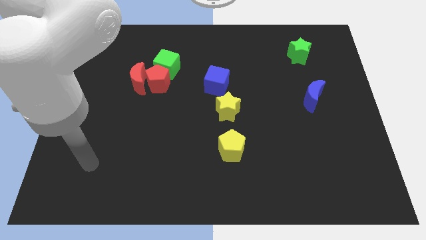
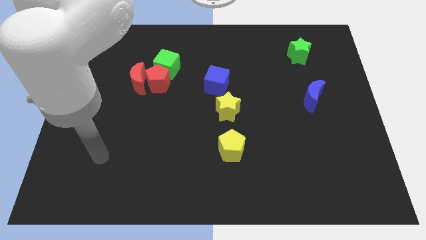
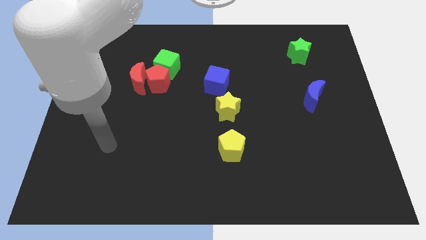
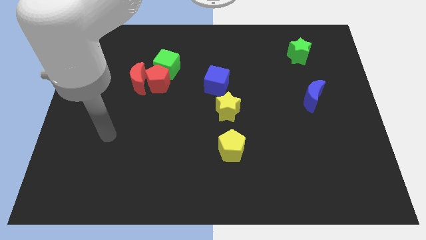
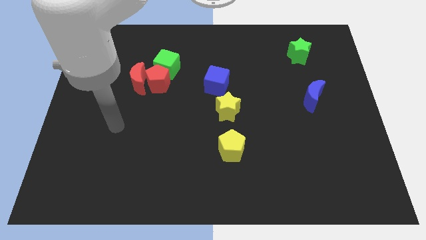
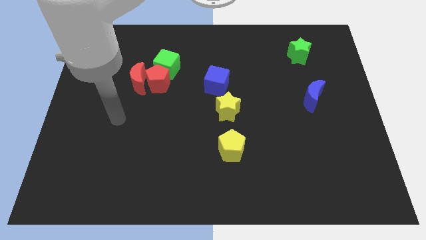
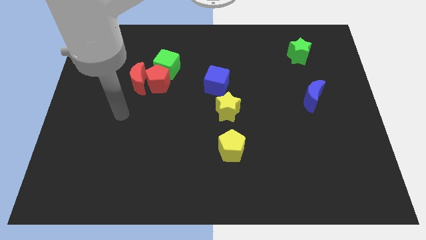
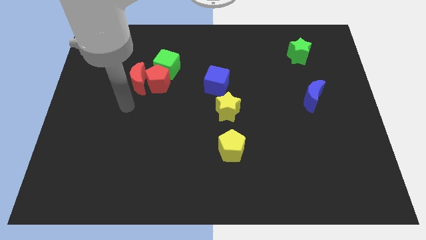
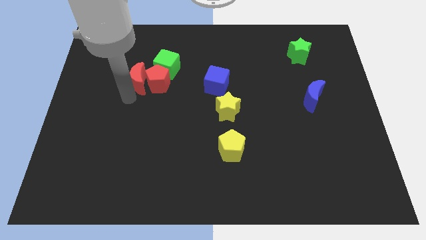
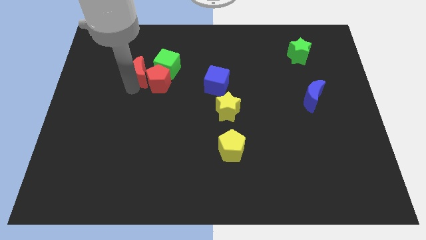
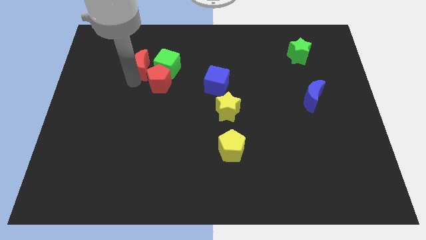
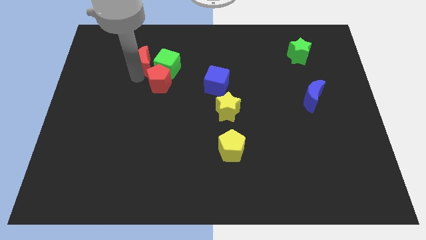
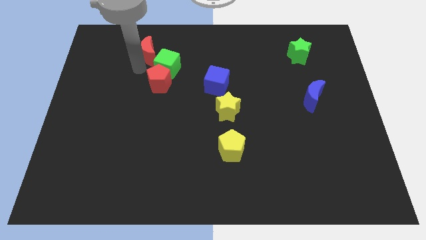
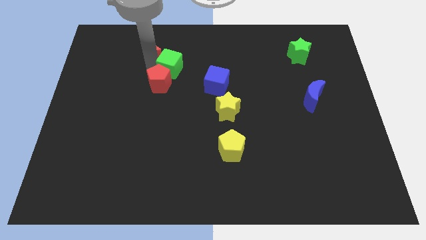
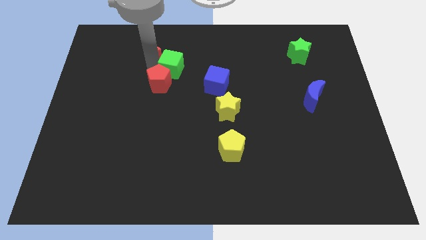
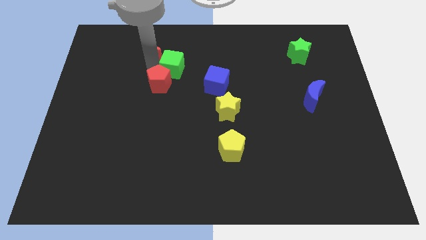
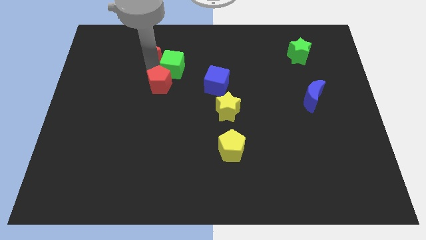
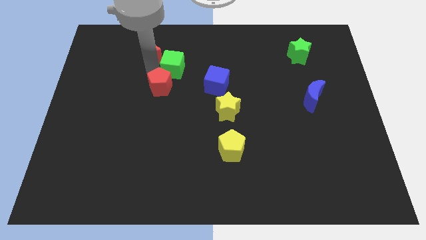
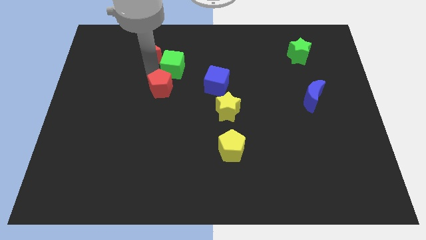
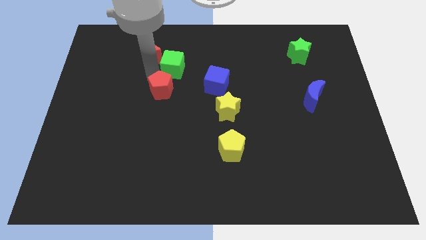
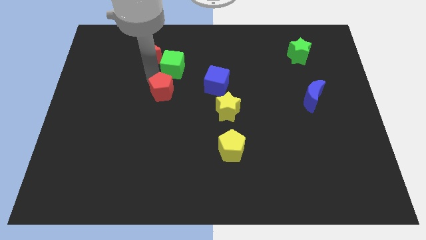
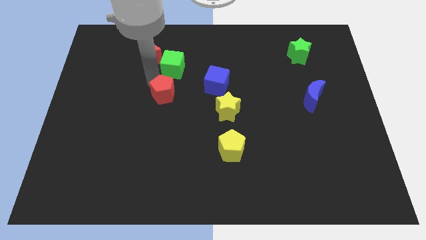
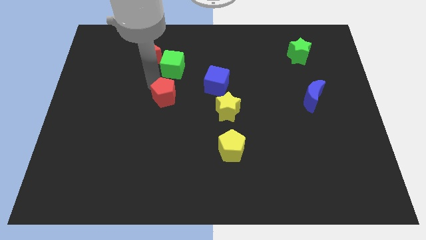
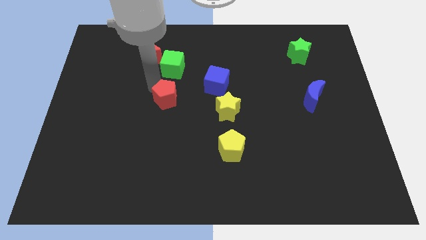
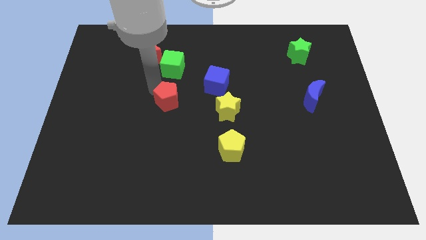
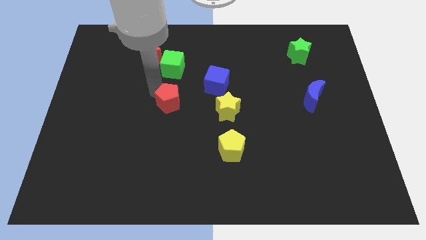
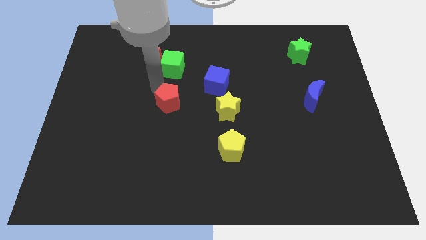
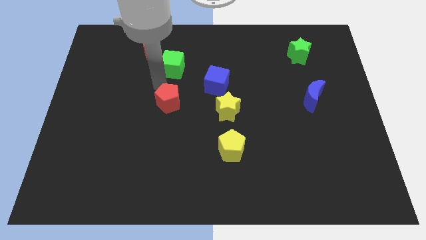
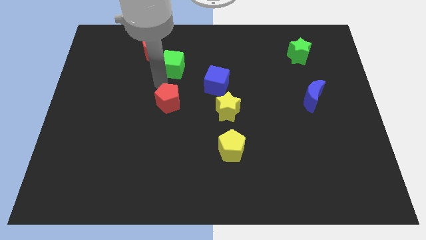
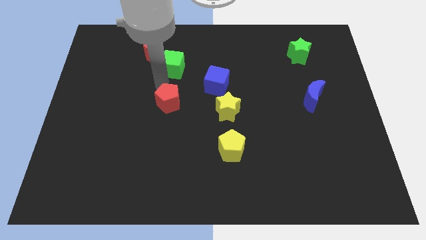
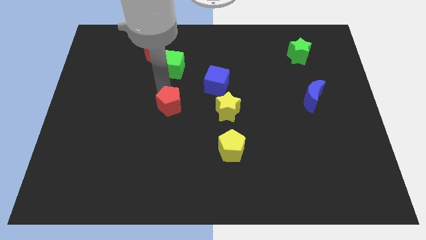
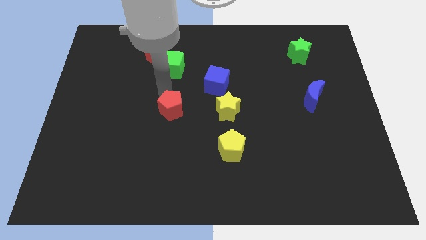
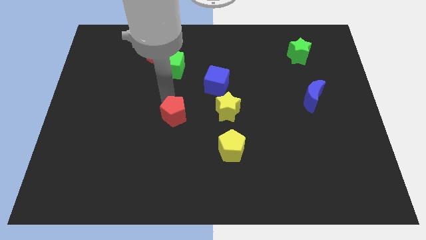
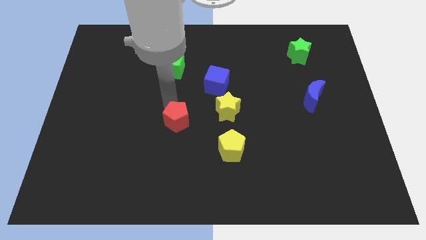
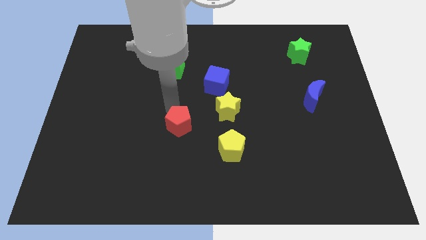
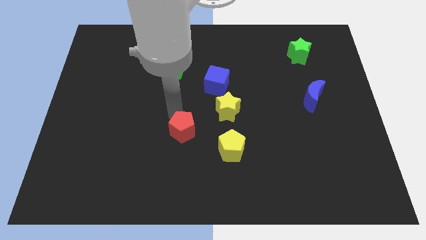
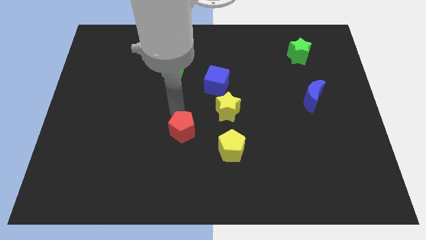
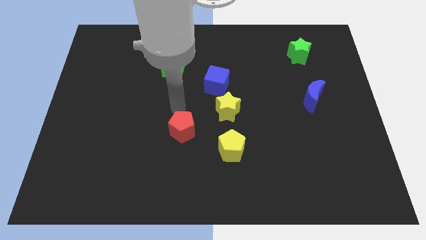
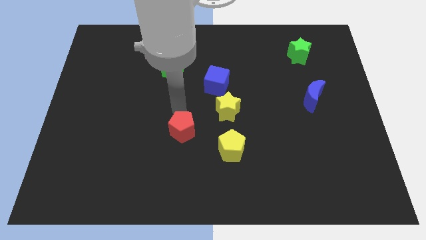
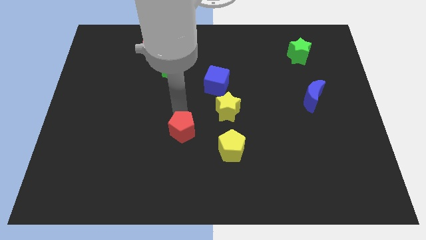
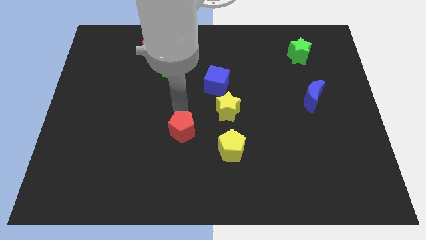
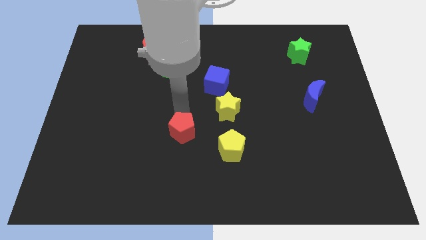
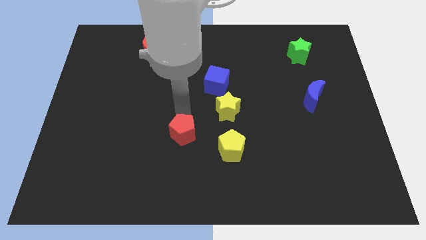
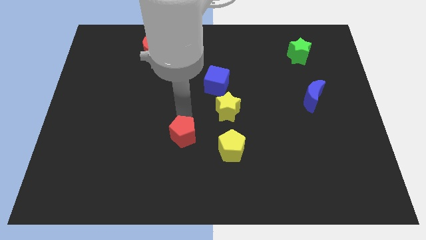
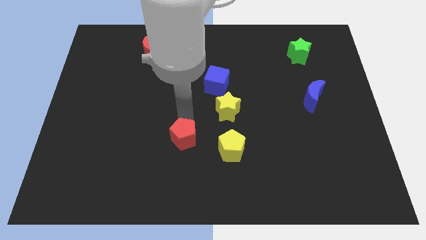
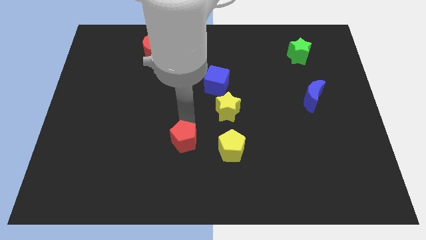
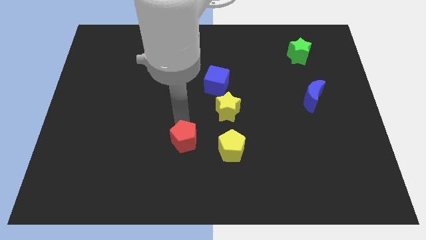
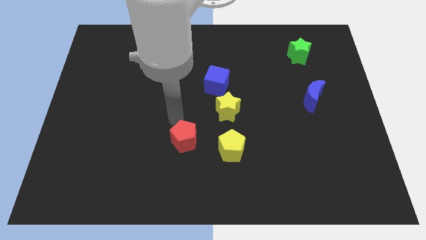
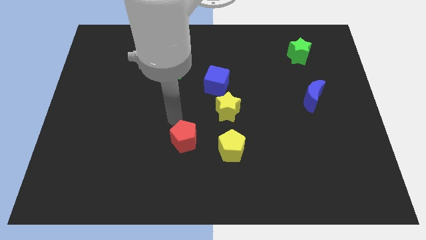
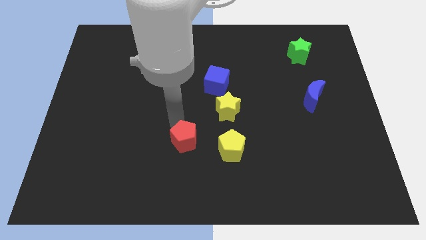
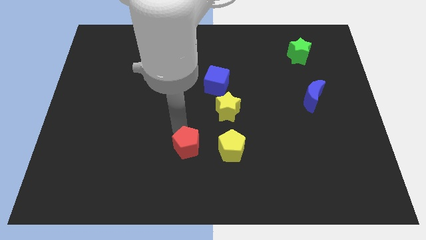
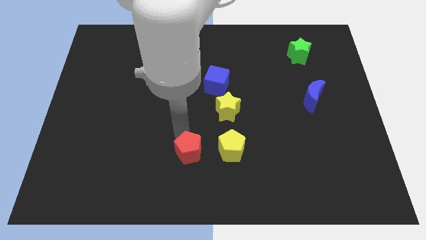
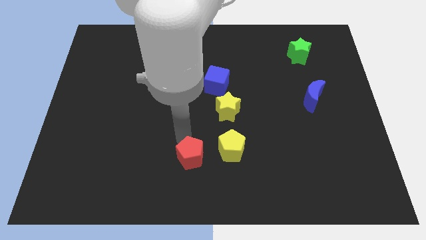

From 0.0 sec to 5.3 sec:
move the red pentagon to the bottom side

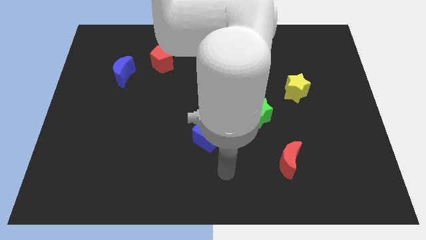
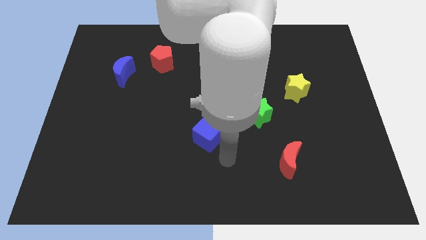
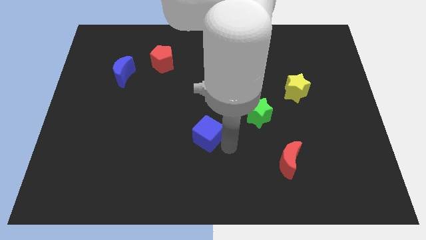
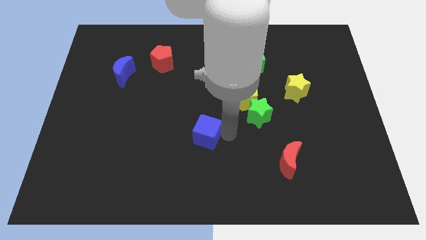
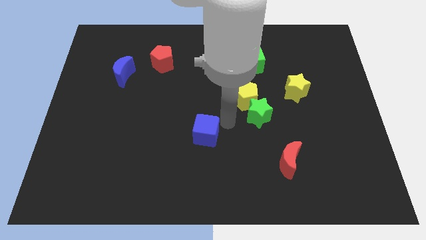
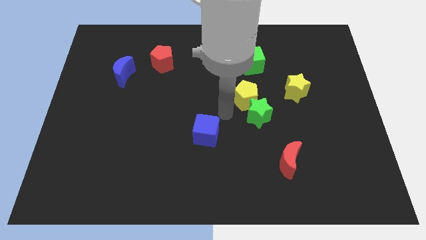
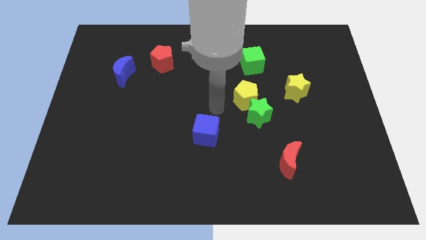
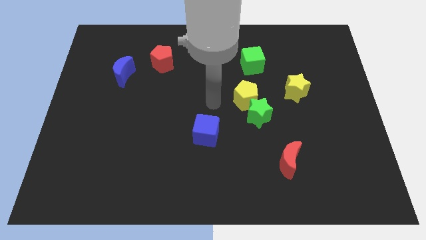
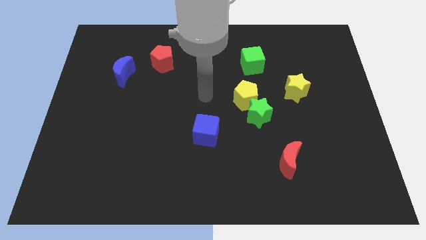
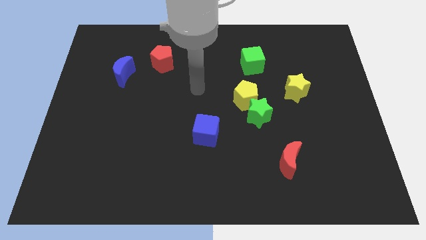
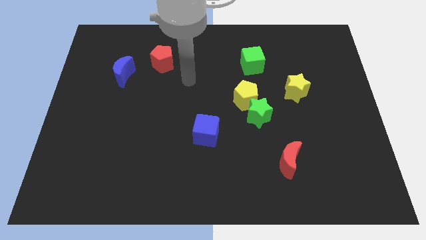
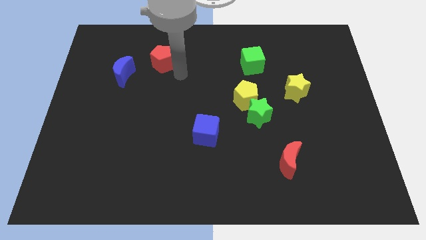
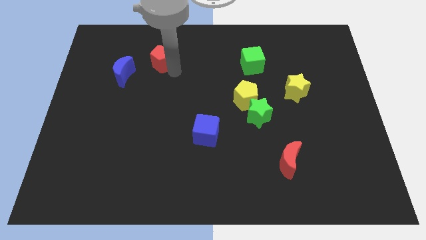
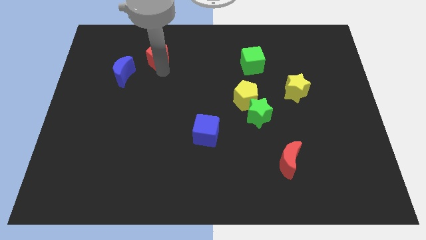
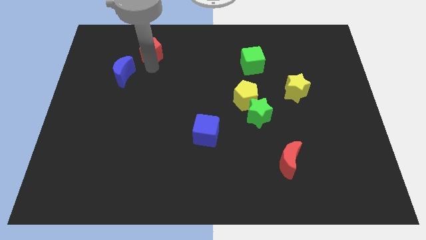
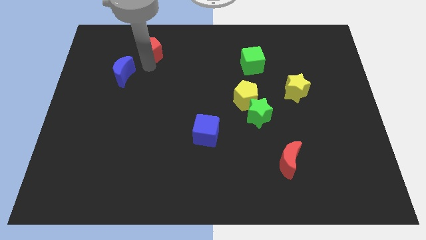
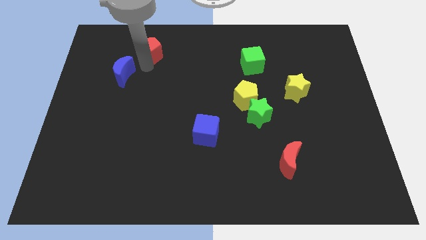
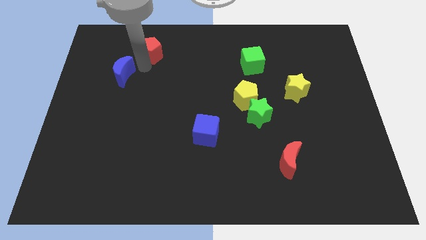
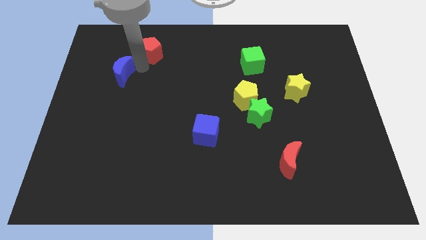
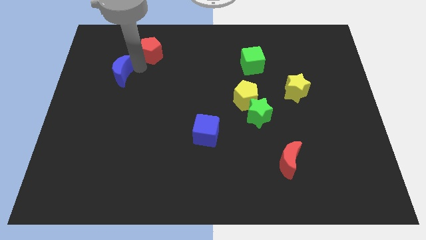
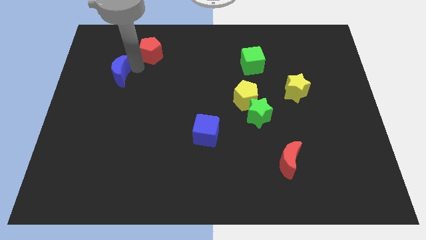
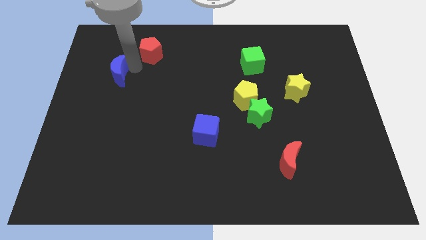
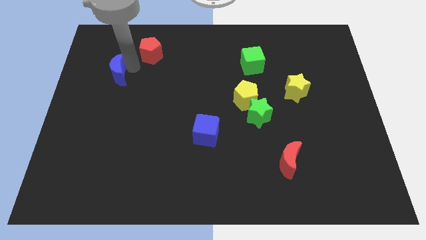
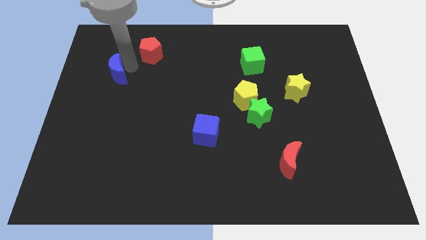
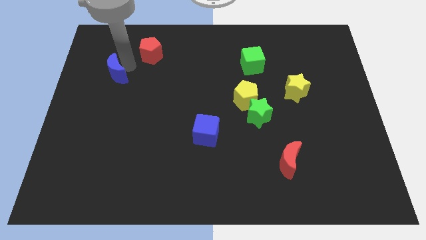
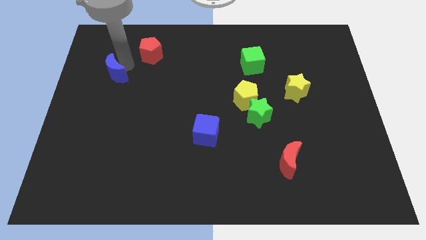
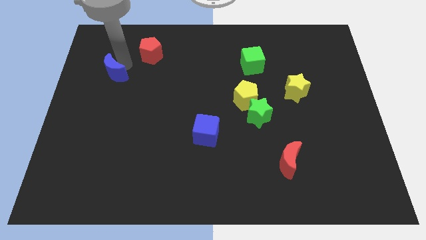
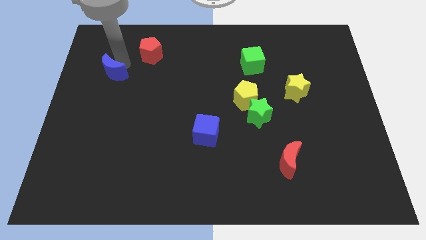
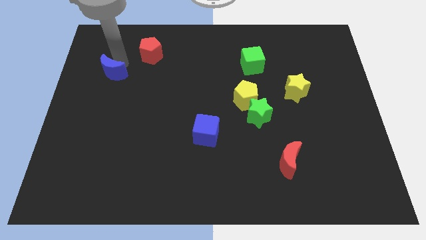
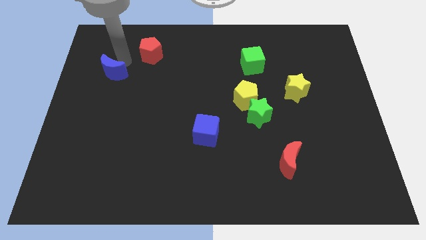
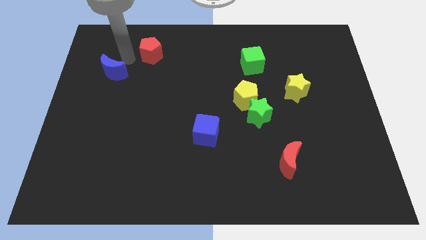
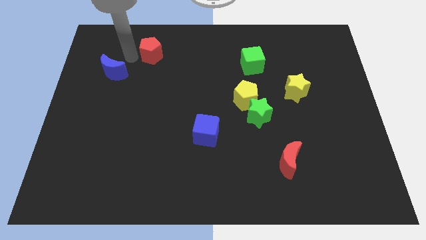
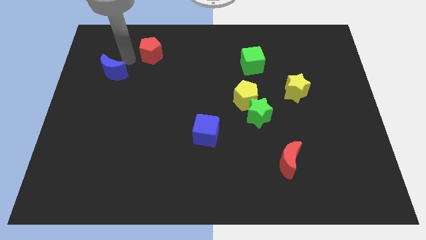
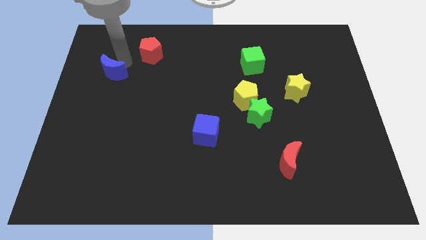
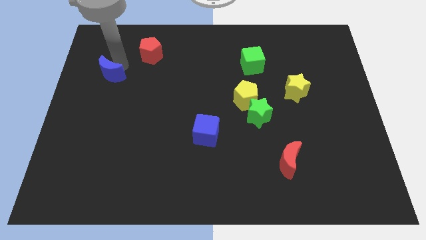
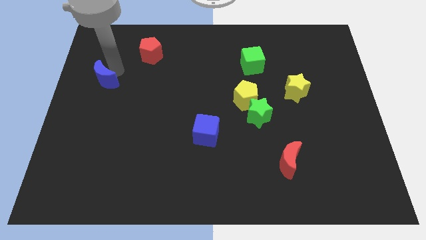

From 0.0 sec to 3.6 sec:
put the blue moon to the left side of the board
